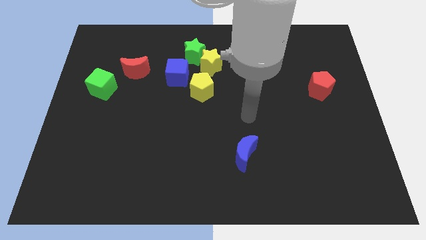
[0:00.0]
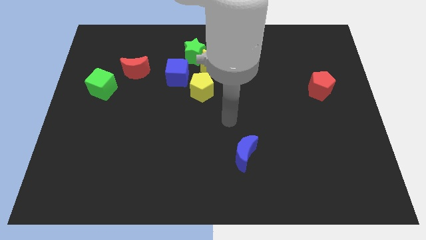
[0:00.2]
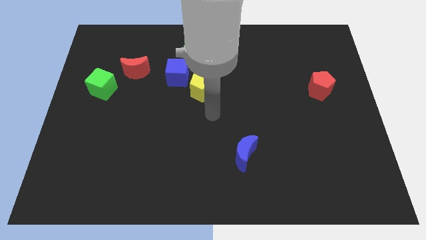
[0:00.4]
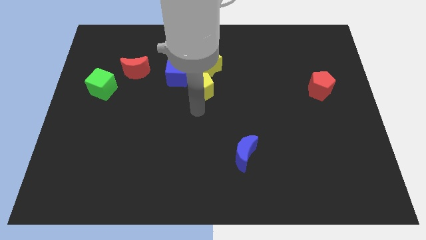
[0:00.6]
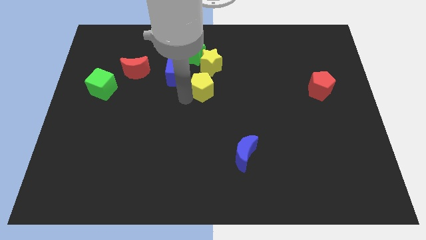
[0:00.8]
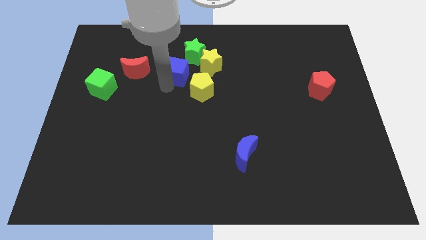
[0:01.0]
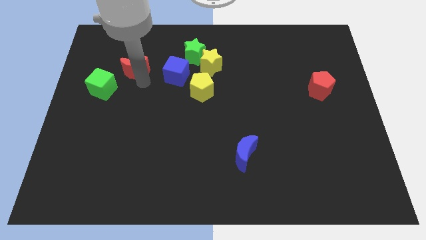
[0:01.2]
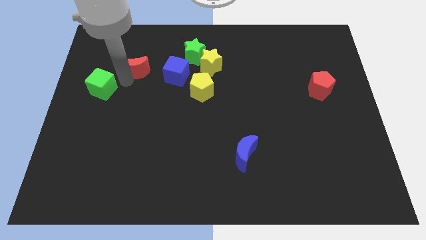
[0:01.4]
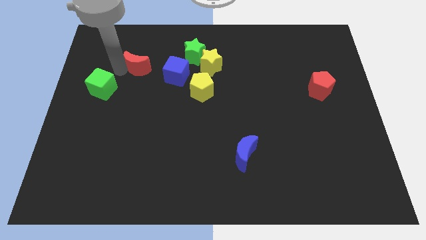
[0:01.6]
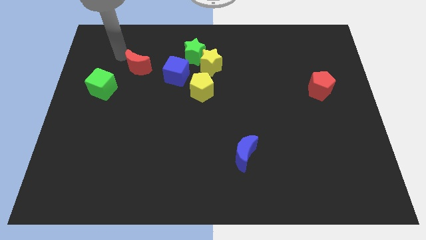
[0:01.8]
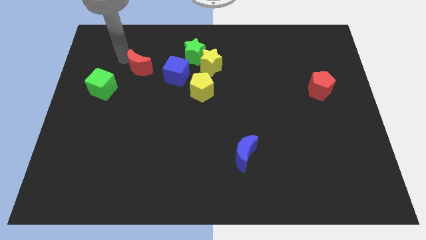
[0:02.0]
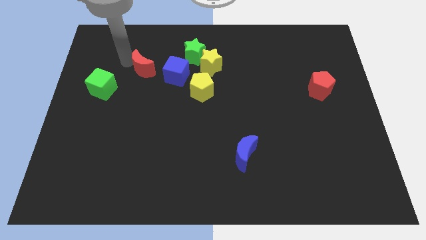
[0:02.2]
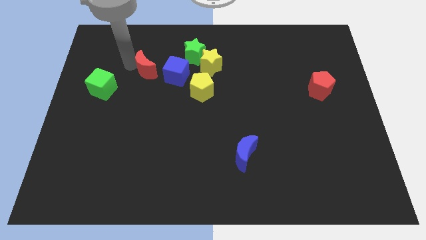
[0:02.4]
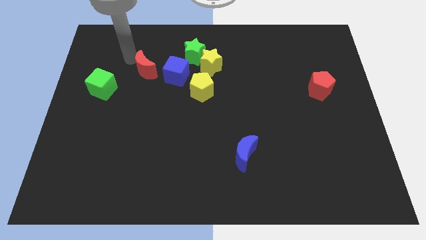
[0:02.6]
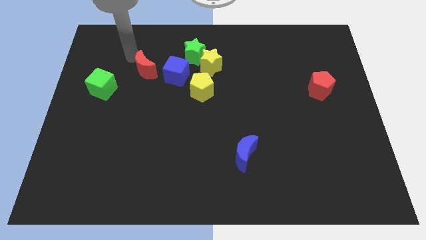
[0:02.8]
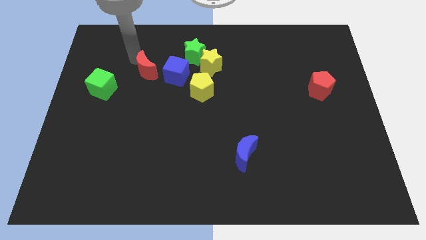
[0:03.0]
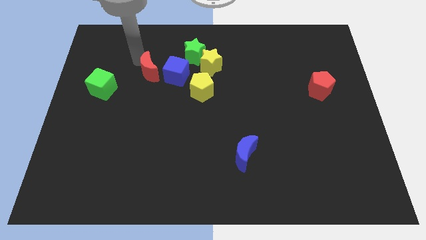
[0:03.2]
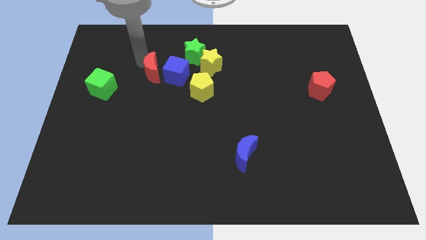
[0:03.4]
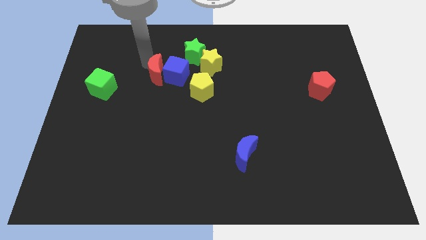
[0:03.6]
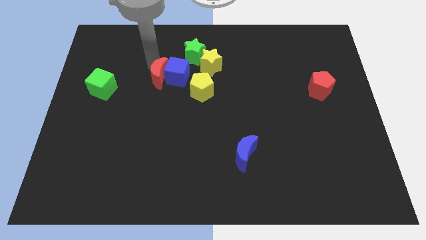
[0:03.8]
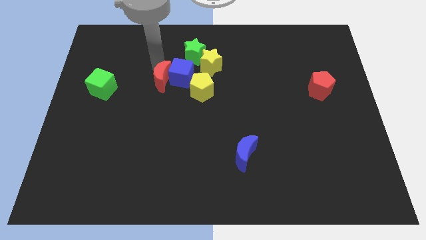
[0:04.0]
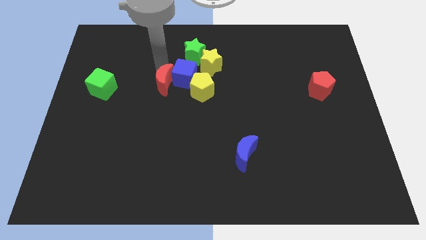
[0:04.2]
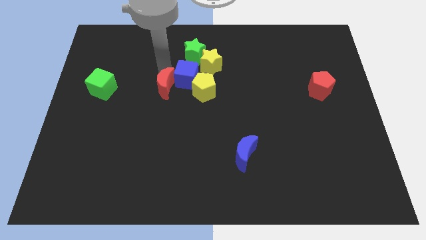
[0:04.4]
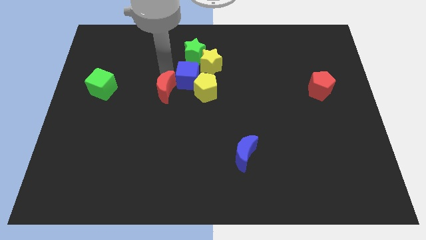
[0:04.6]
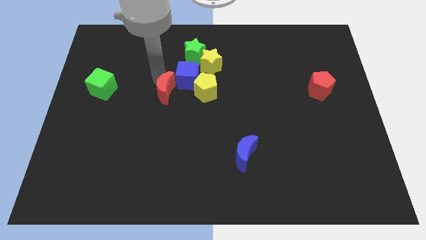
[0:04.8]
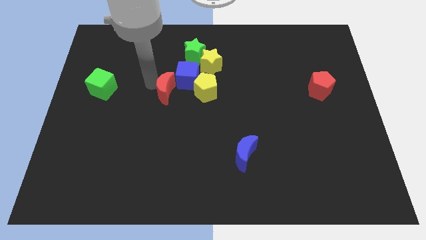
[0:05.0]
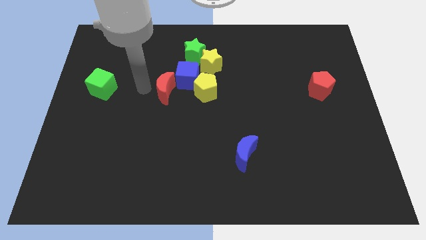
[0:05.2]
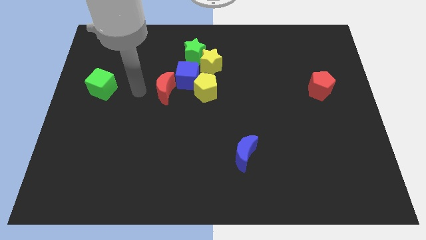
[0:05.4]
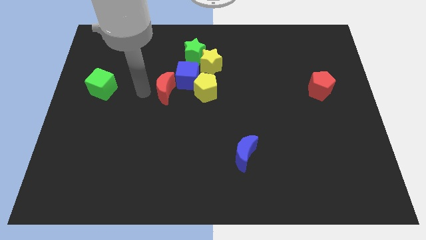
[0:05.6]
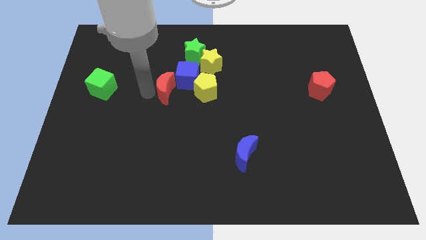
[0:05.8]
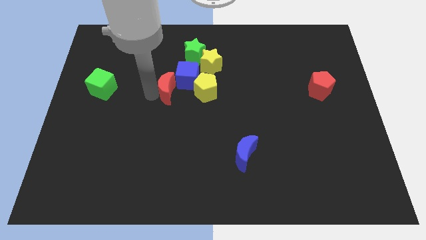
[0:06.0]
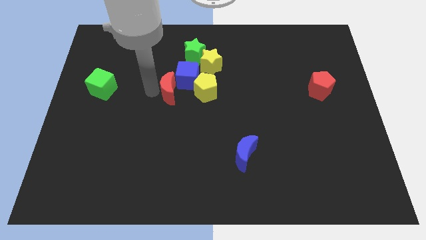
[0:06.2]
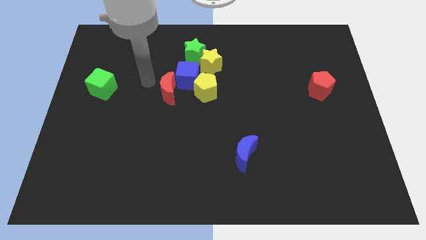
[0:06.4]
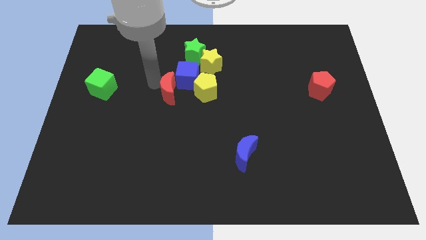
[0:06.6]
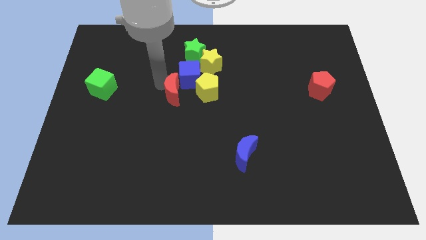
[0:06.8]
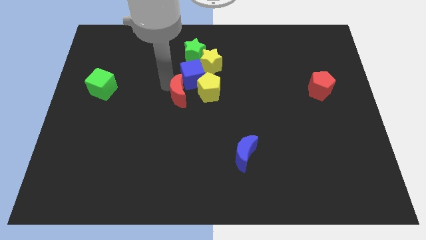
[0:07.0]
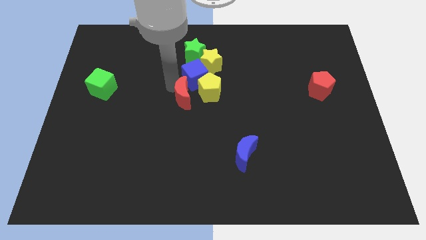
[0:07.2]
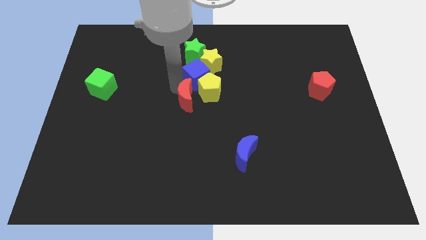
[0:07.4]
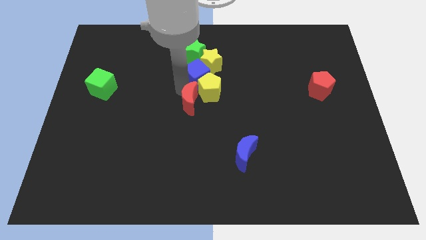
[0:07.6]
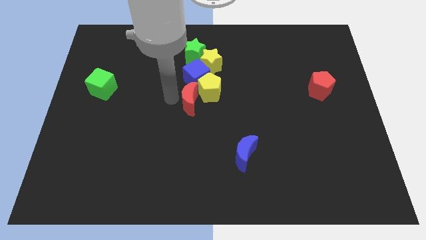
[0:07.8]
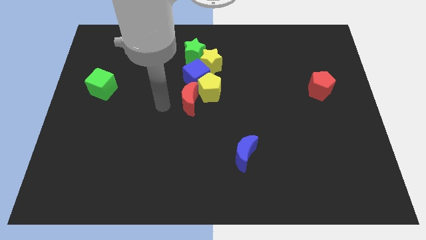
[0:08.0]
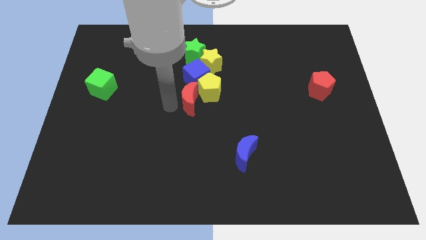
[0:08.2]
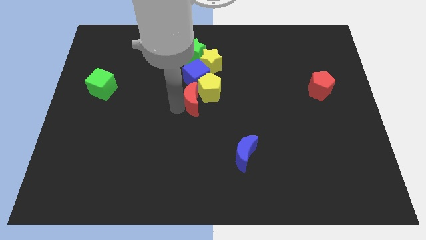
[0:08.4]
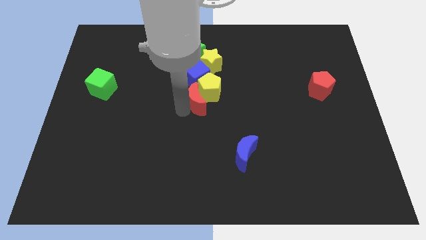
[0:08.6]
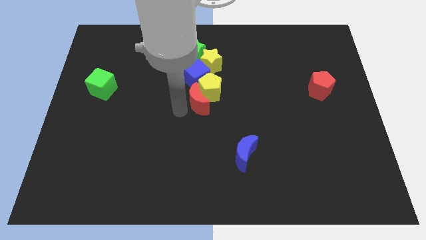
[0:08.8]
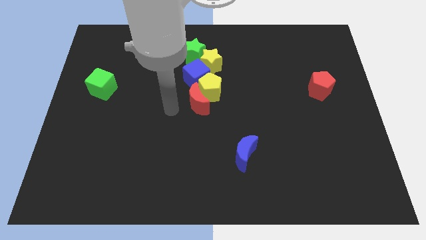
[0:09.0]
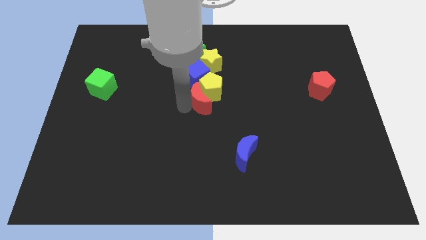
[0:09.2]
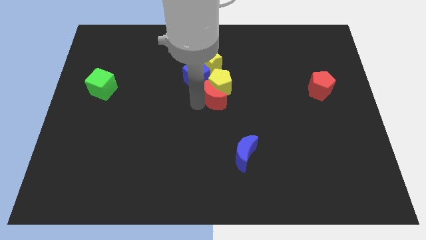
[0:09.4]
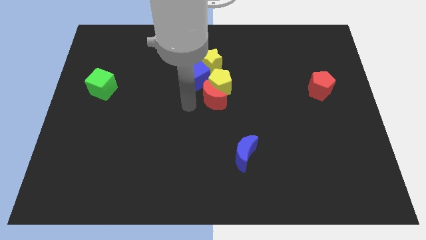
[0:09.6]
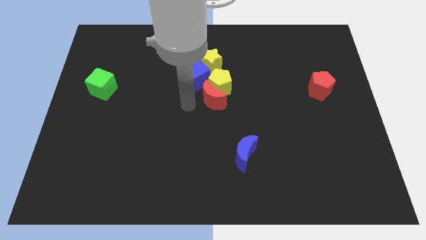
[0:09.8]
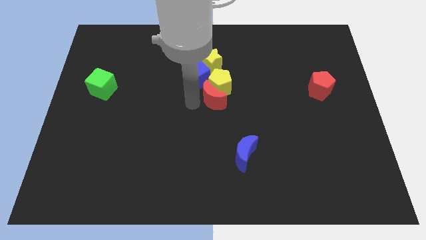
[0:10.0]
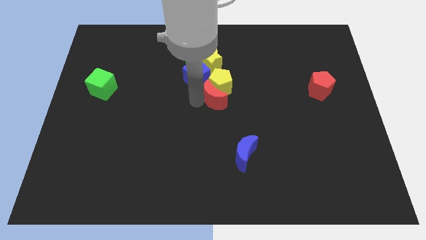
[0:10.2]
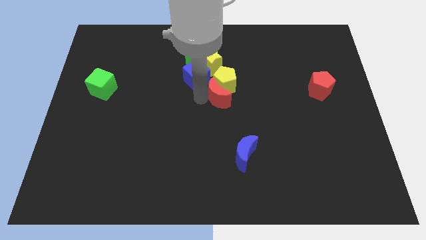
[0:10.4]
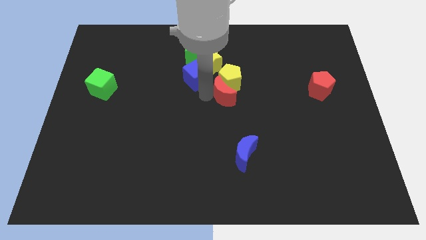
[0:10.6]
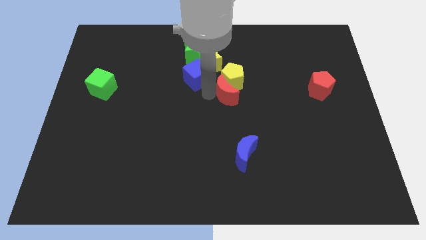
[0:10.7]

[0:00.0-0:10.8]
move the red moon to the right

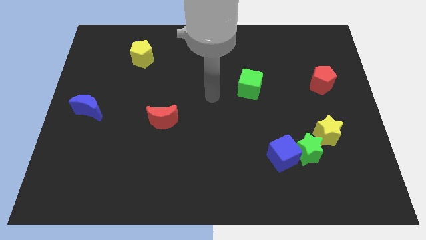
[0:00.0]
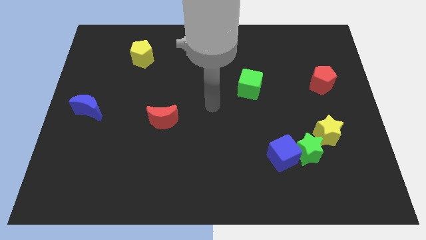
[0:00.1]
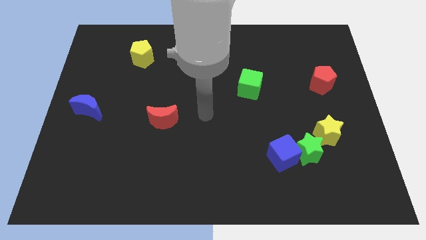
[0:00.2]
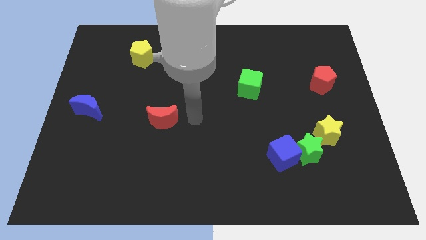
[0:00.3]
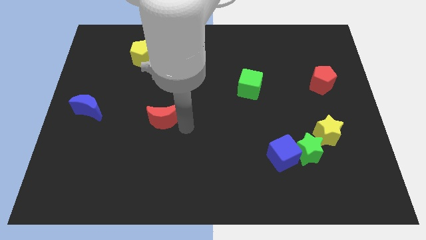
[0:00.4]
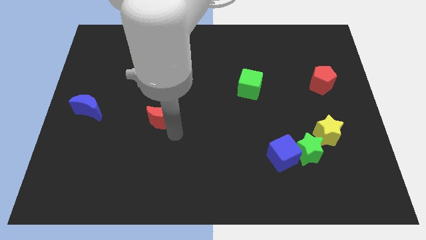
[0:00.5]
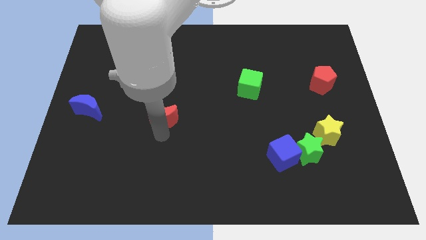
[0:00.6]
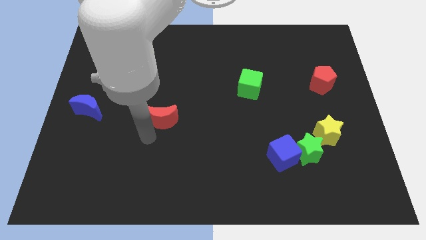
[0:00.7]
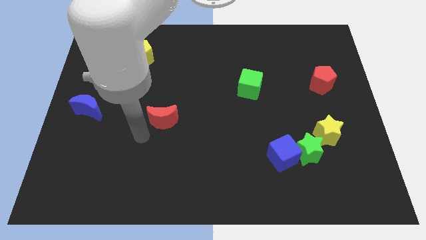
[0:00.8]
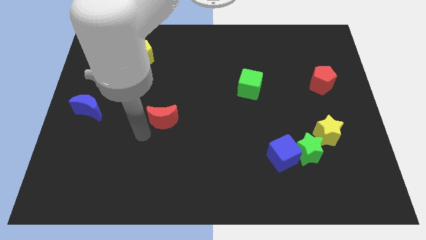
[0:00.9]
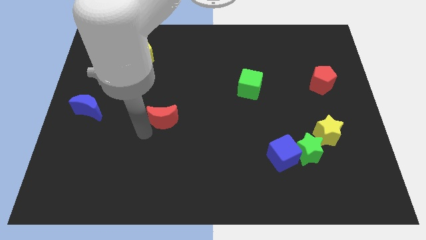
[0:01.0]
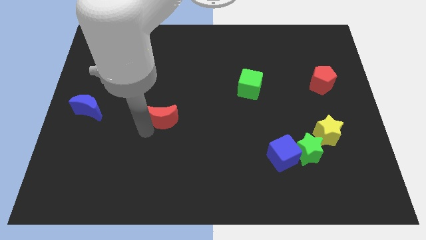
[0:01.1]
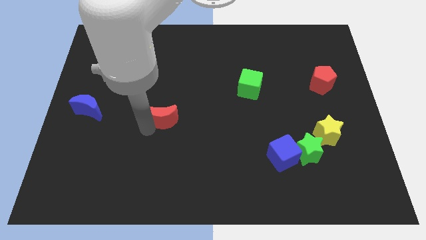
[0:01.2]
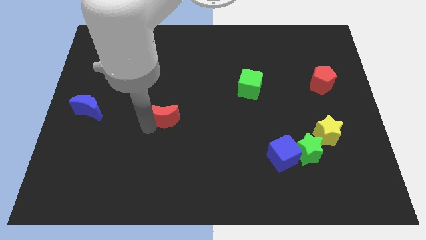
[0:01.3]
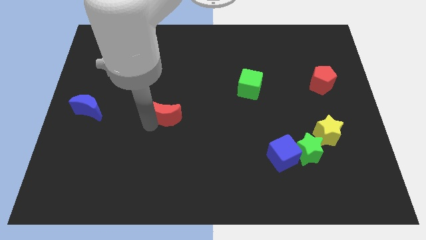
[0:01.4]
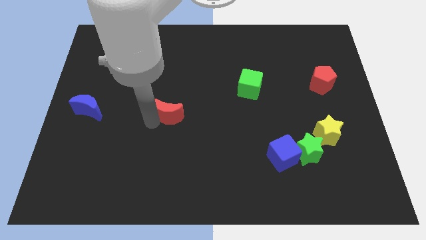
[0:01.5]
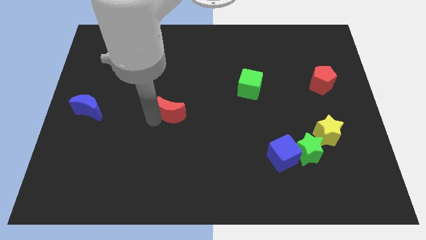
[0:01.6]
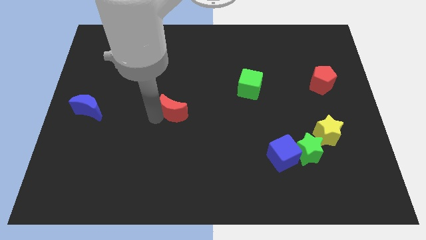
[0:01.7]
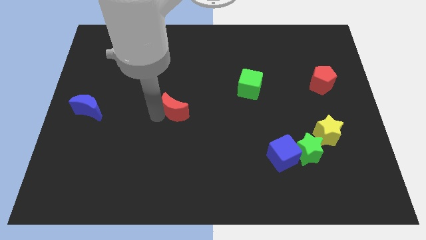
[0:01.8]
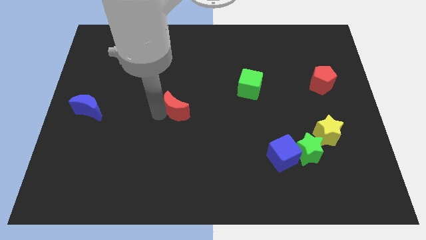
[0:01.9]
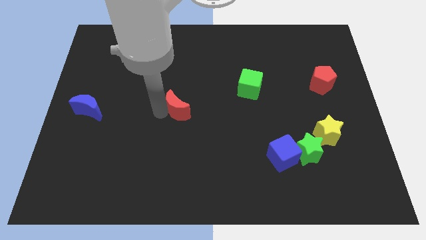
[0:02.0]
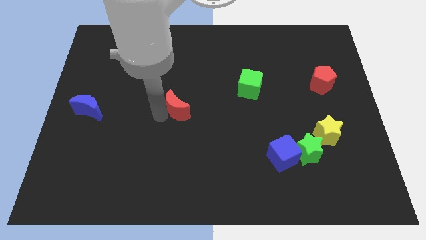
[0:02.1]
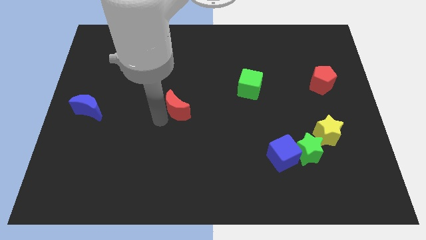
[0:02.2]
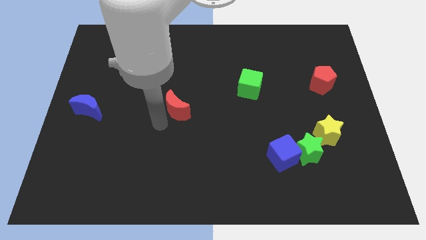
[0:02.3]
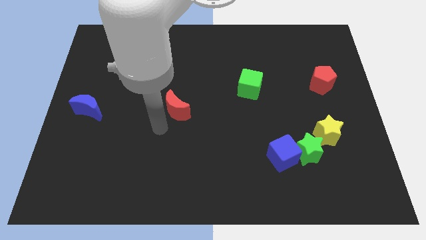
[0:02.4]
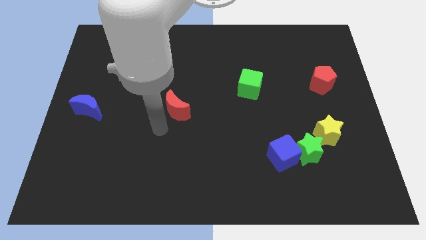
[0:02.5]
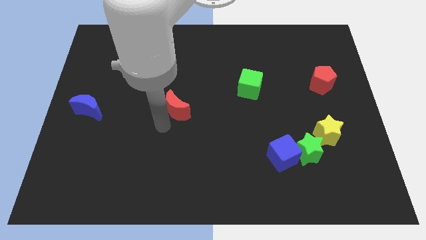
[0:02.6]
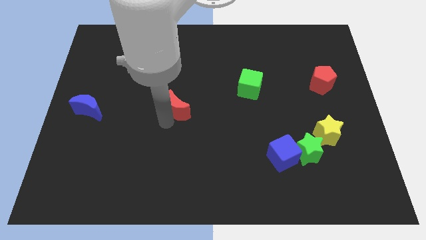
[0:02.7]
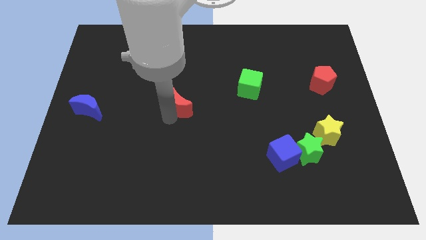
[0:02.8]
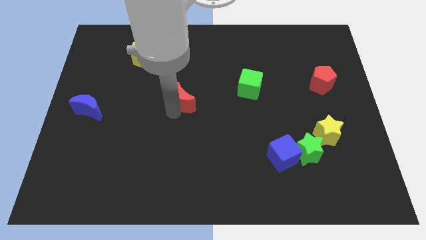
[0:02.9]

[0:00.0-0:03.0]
slightly move the red moon up and then to the right
